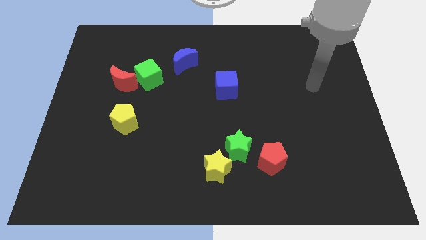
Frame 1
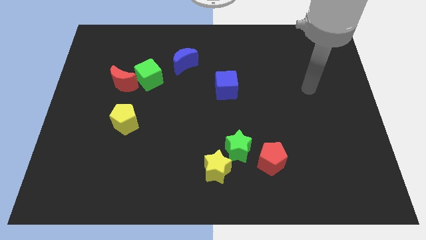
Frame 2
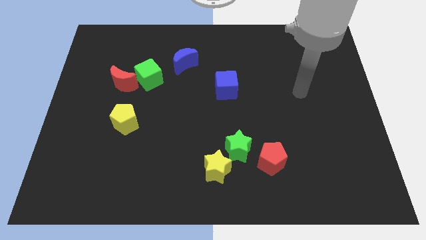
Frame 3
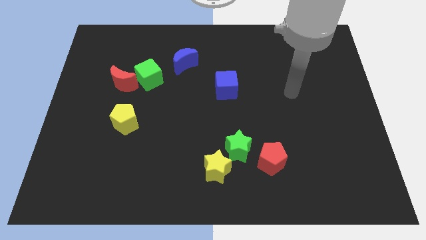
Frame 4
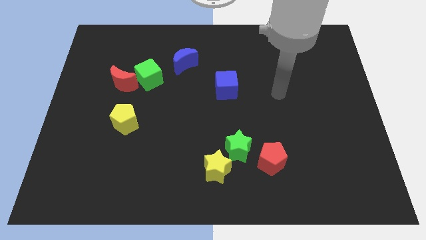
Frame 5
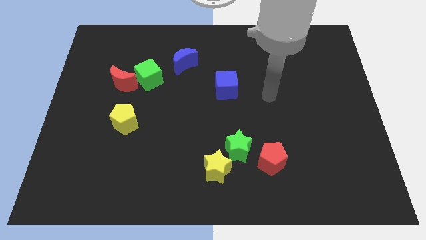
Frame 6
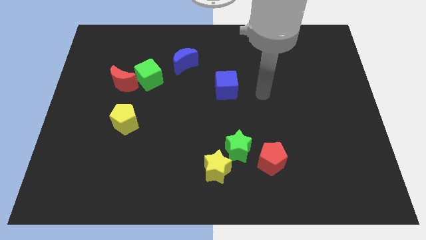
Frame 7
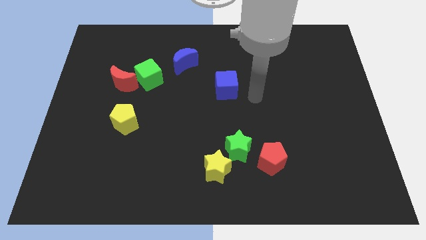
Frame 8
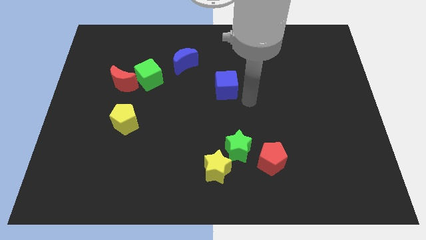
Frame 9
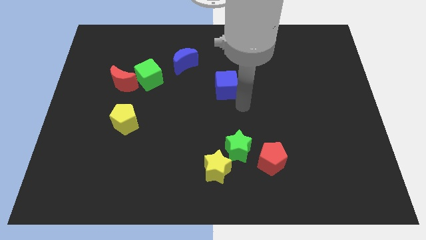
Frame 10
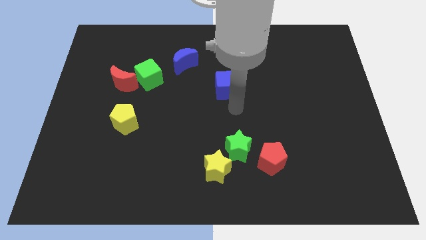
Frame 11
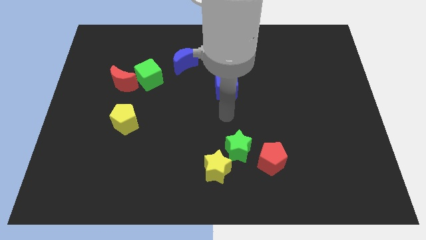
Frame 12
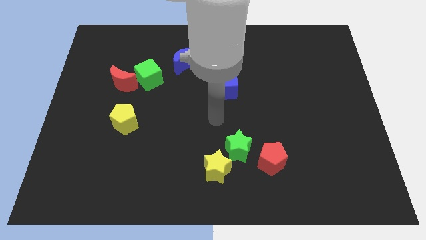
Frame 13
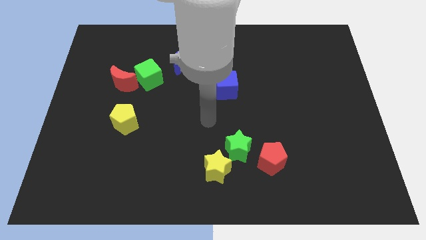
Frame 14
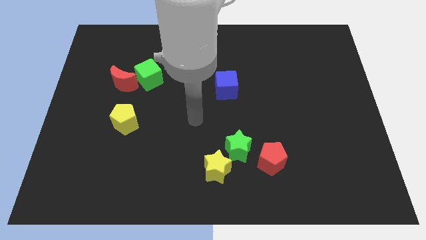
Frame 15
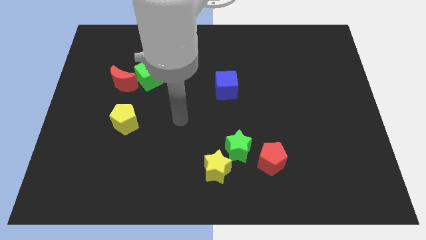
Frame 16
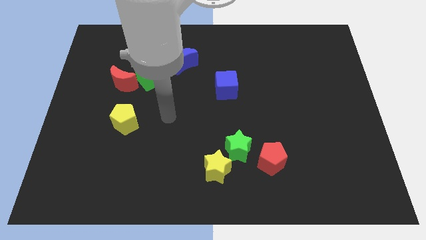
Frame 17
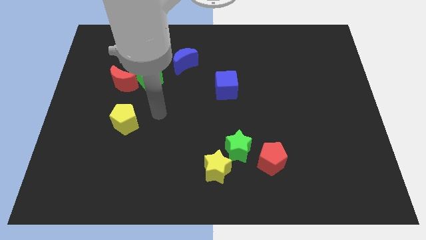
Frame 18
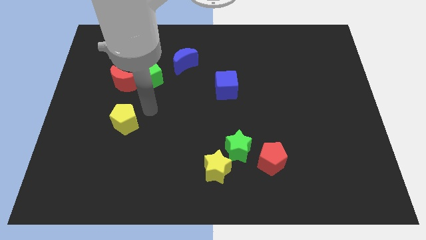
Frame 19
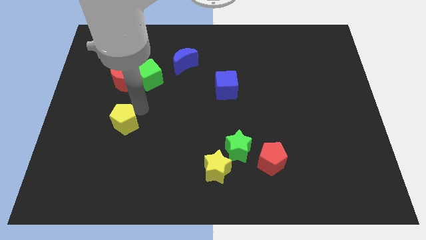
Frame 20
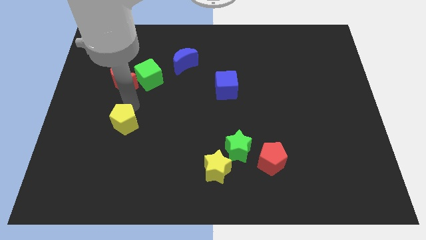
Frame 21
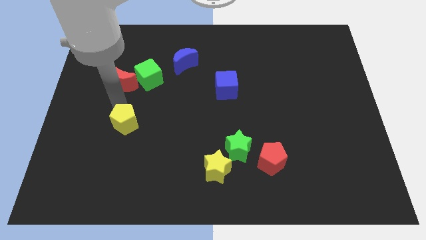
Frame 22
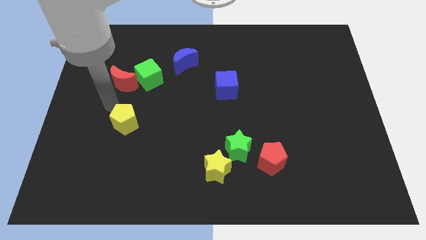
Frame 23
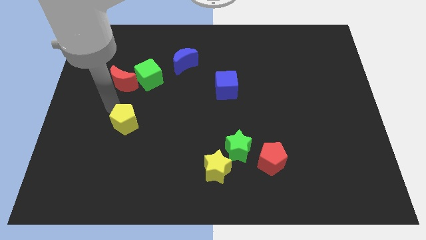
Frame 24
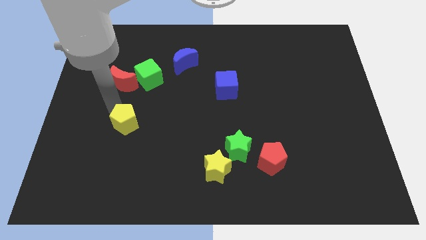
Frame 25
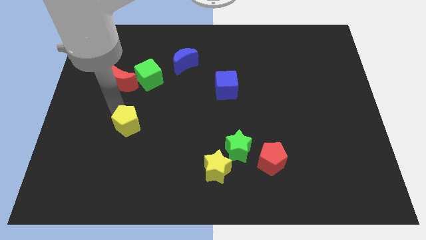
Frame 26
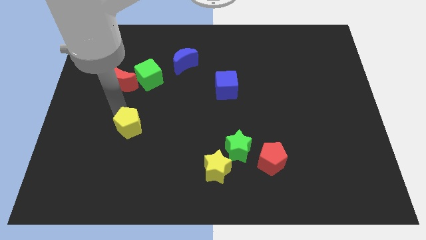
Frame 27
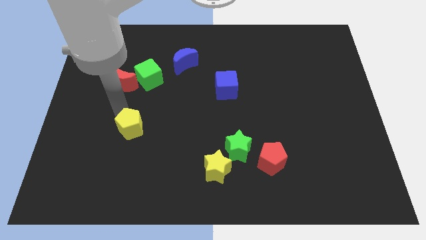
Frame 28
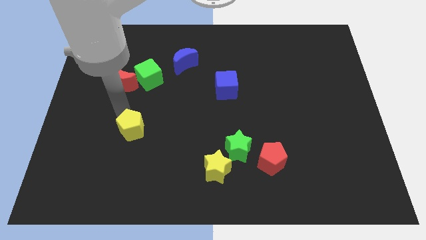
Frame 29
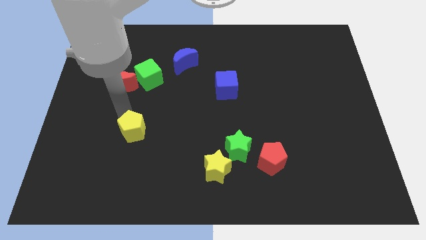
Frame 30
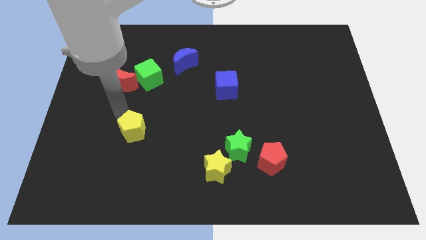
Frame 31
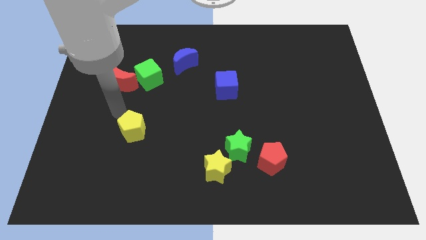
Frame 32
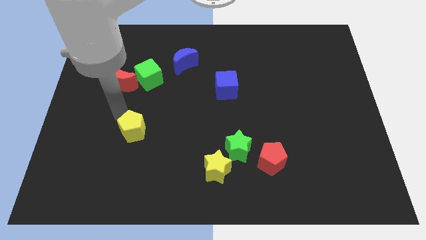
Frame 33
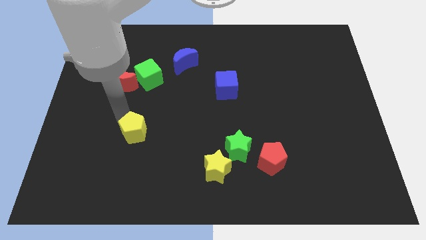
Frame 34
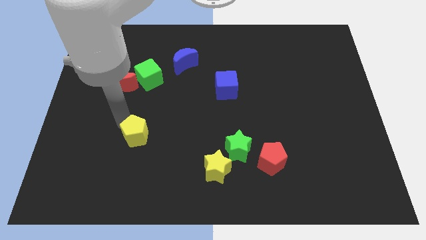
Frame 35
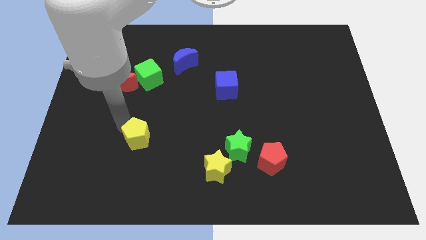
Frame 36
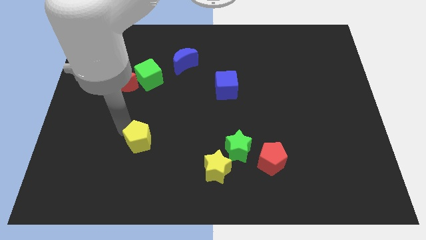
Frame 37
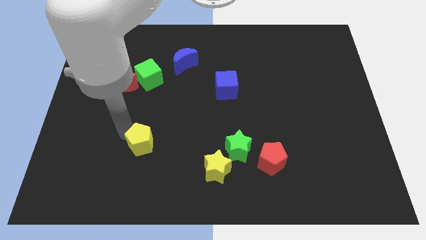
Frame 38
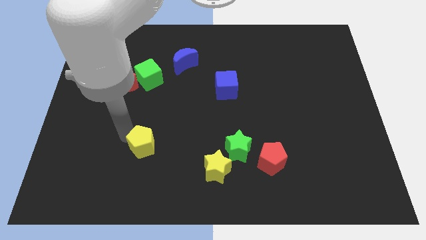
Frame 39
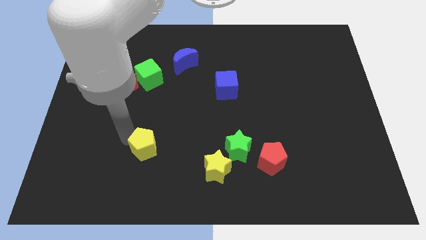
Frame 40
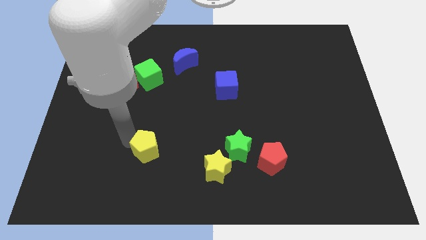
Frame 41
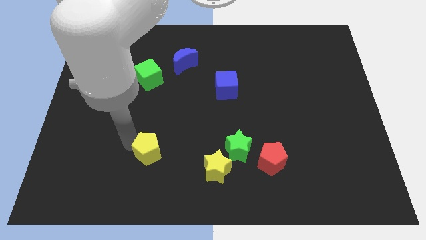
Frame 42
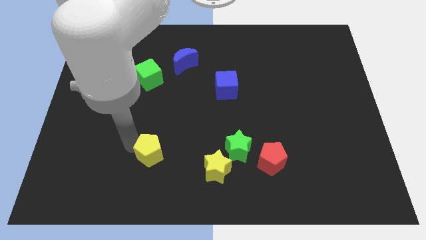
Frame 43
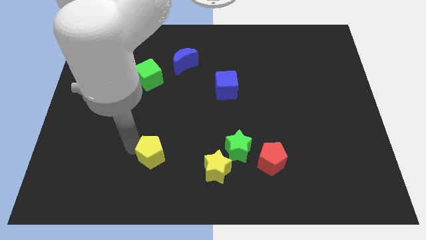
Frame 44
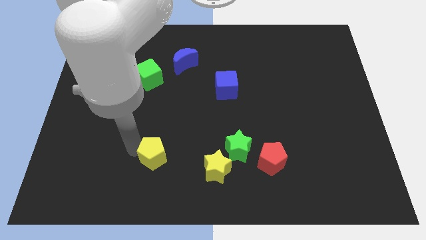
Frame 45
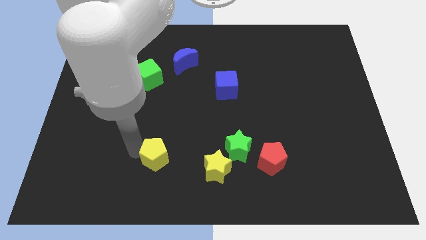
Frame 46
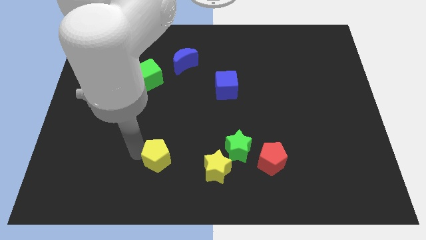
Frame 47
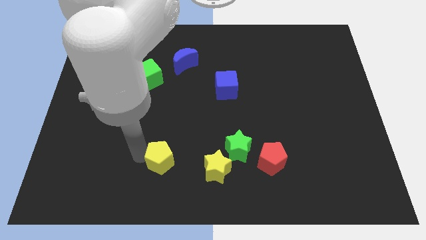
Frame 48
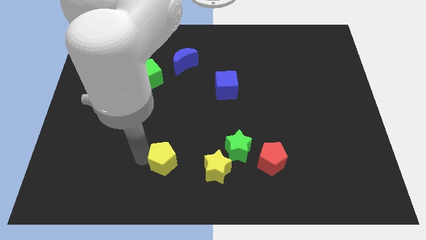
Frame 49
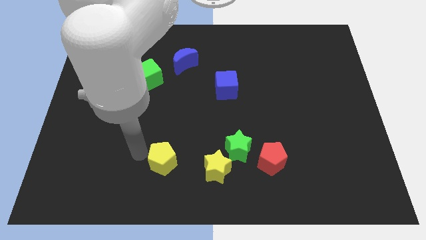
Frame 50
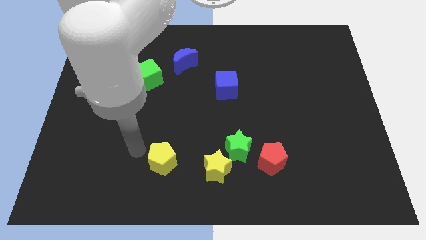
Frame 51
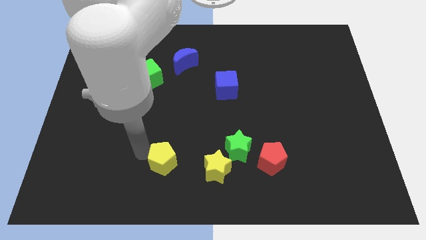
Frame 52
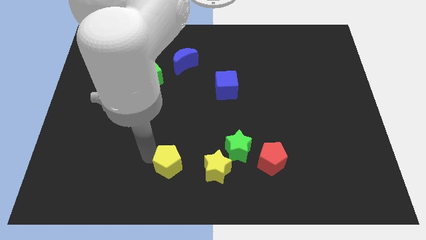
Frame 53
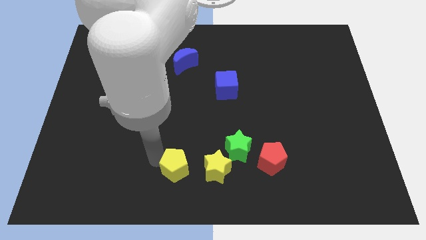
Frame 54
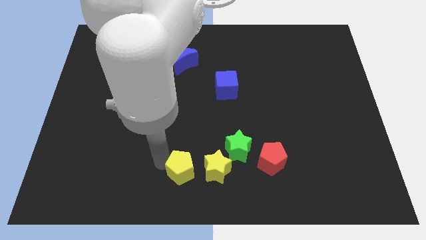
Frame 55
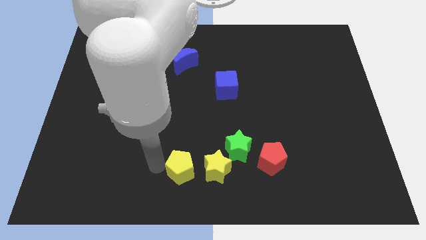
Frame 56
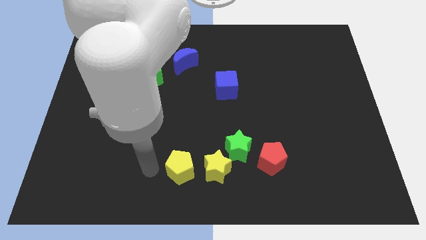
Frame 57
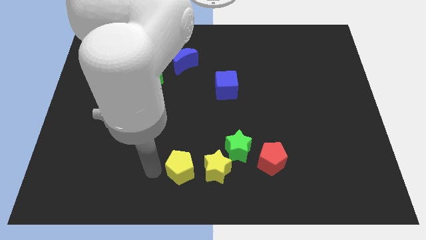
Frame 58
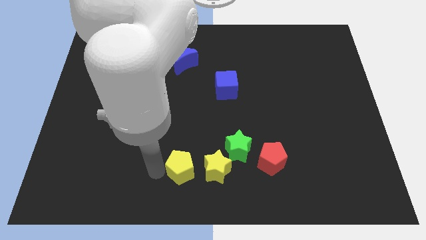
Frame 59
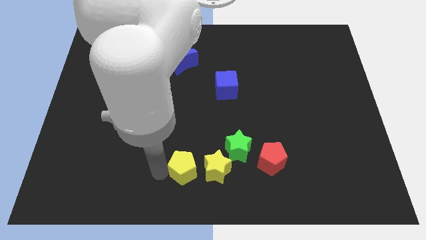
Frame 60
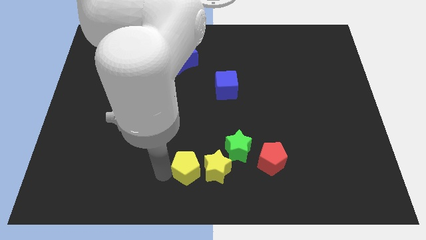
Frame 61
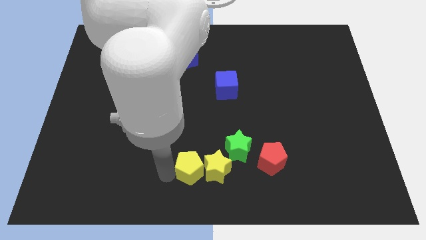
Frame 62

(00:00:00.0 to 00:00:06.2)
put the yellow pentagon to the bottom left of the green star
